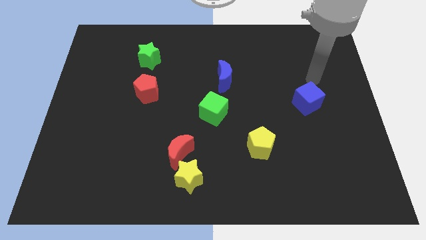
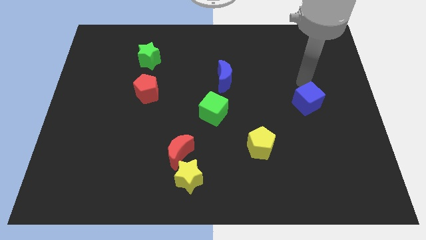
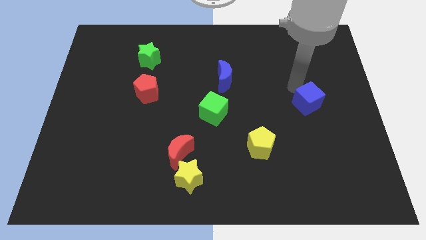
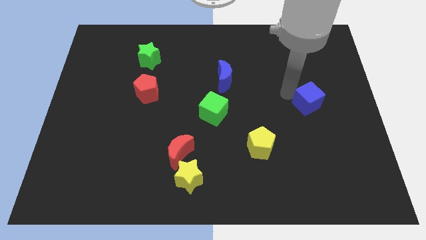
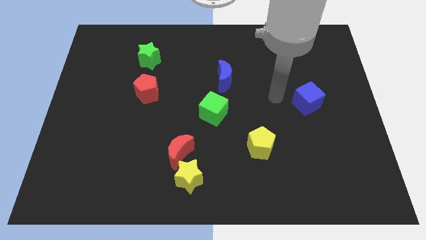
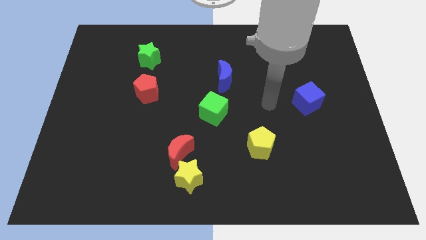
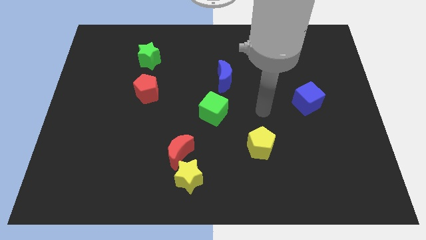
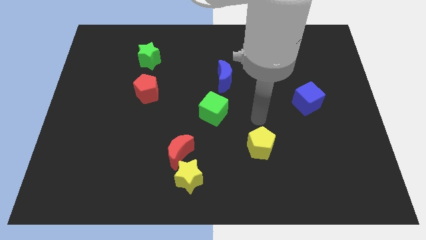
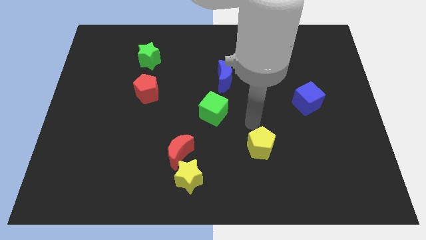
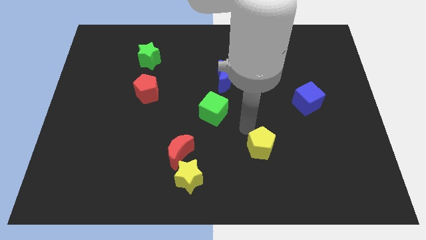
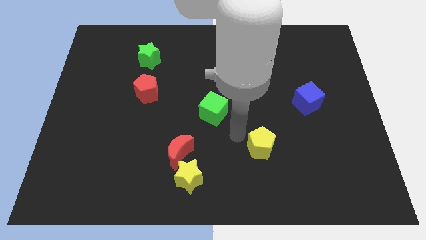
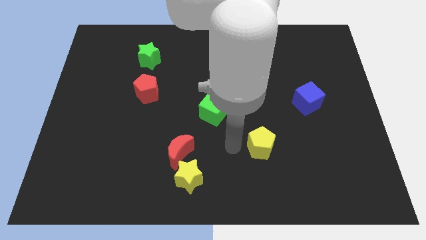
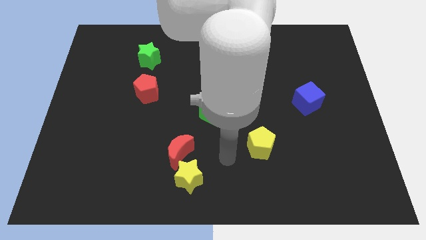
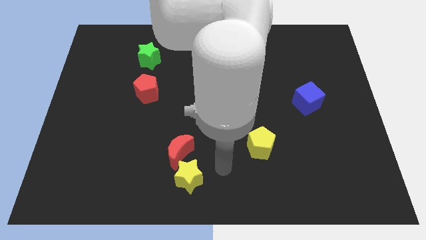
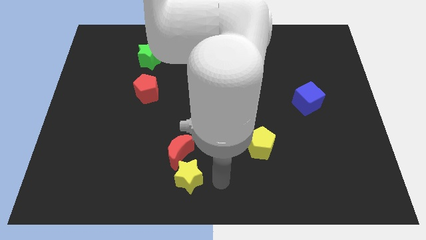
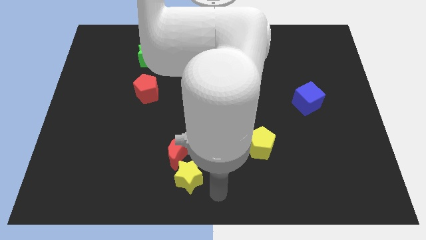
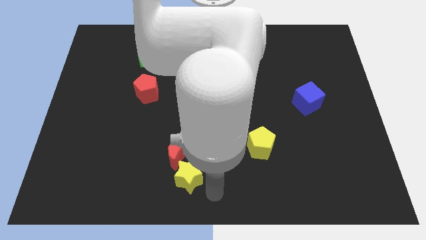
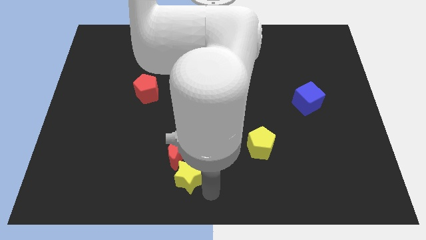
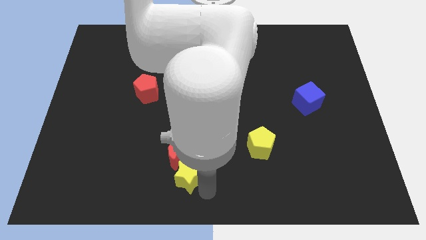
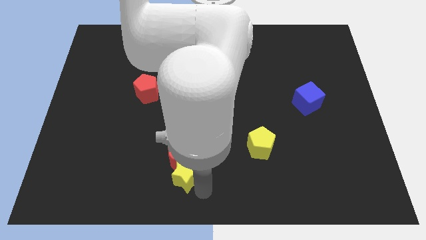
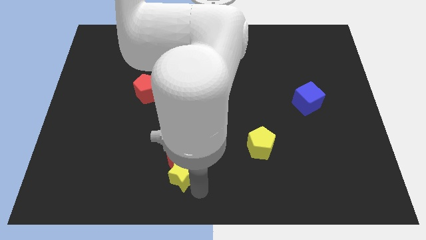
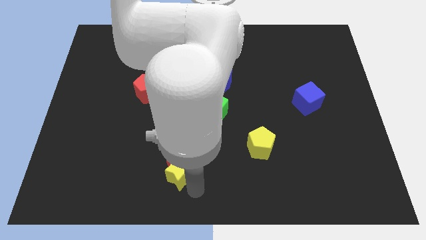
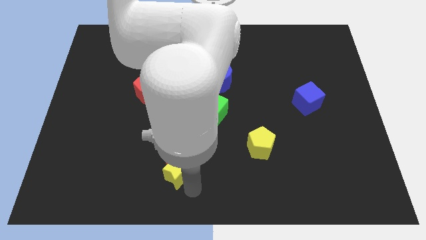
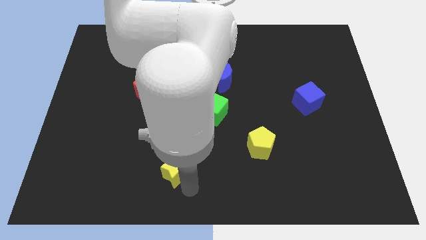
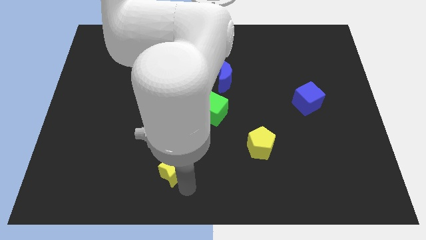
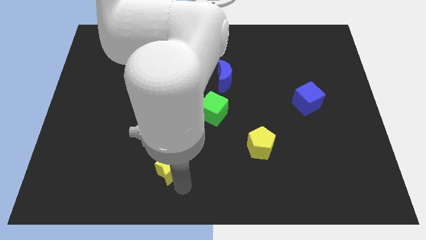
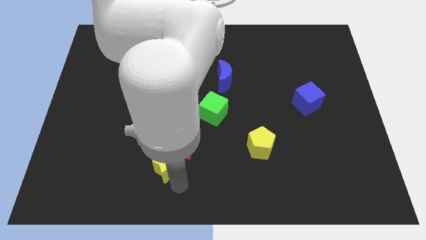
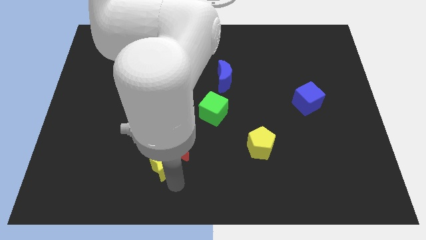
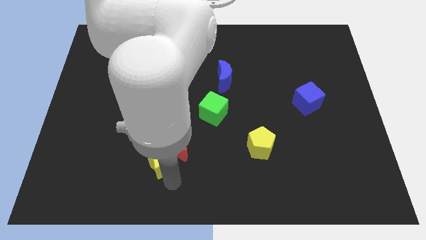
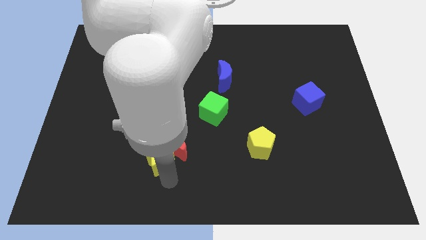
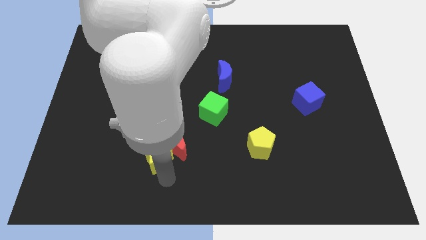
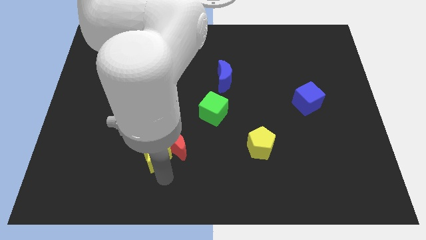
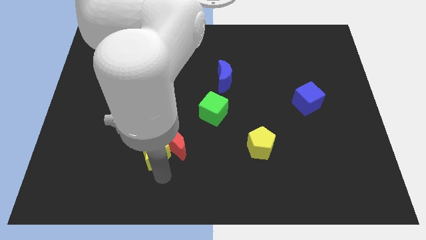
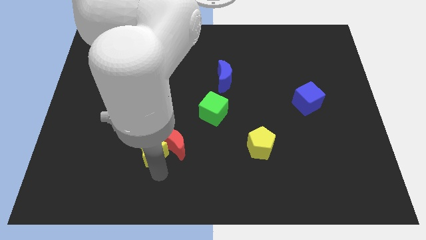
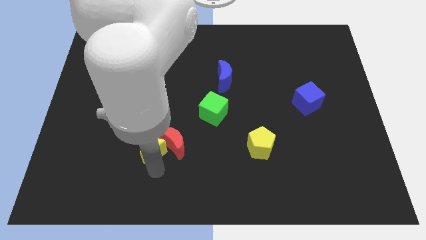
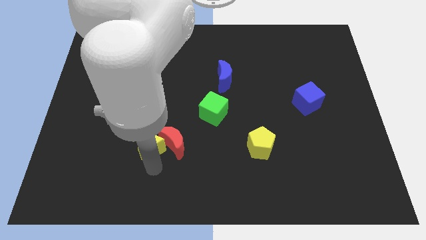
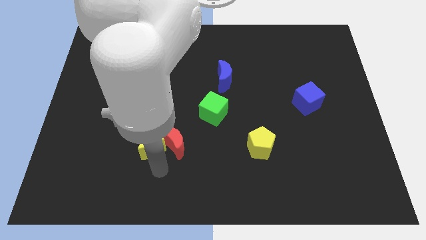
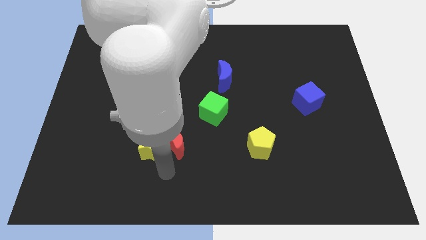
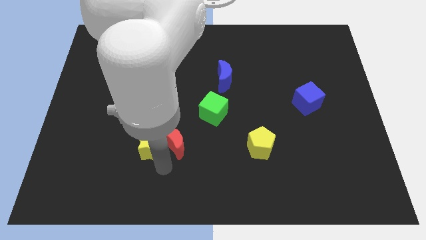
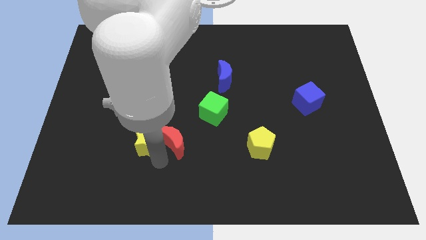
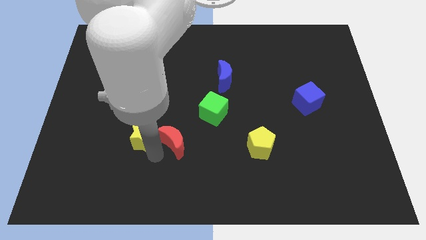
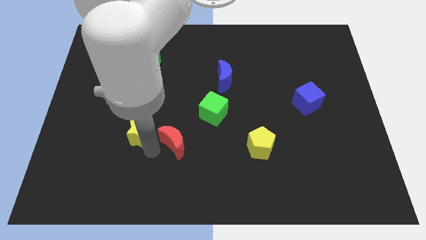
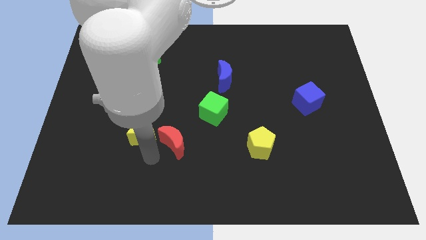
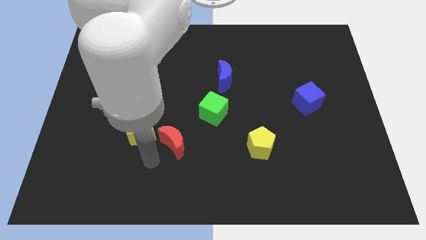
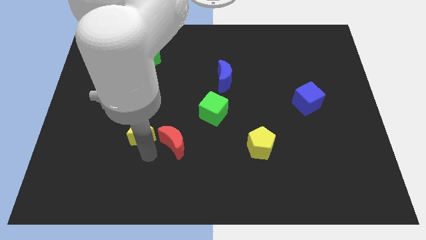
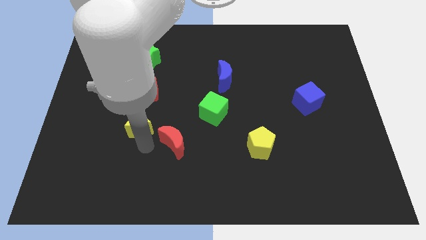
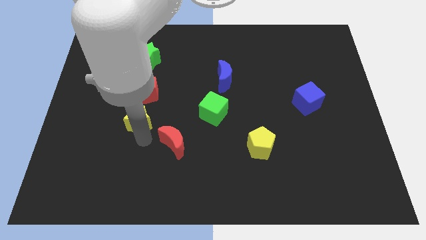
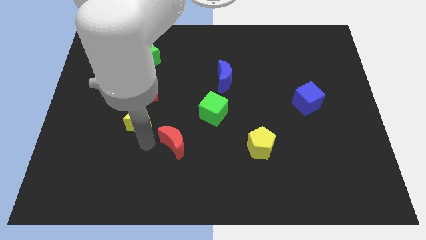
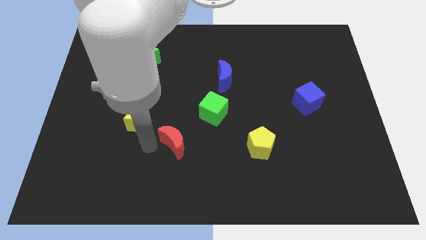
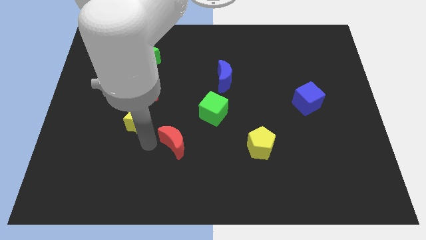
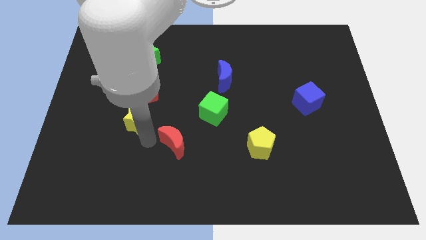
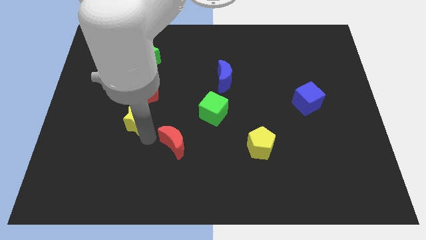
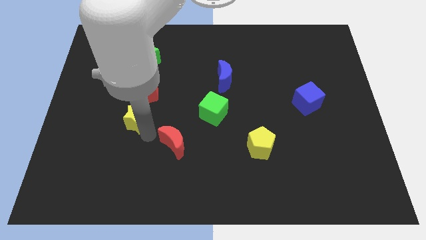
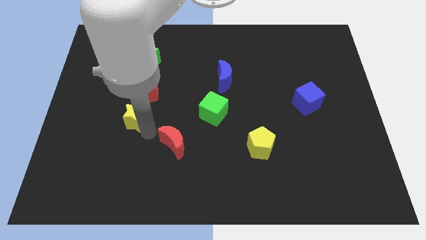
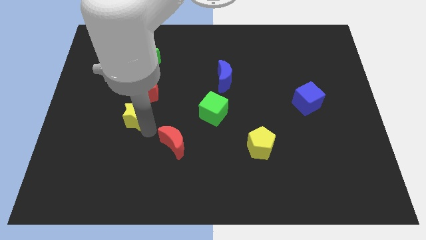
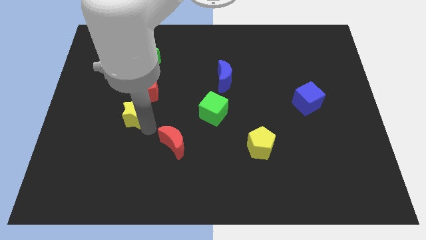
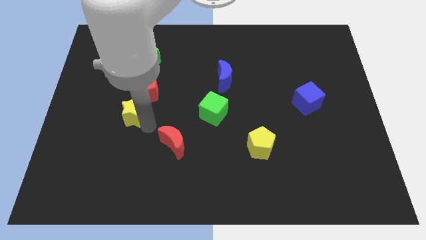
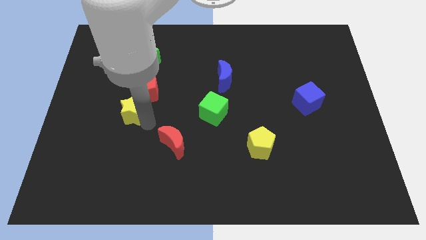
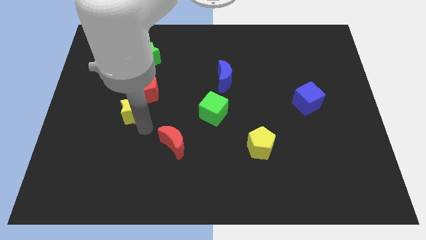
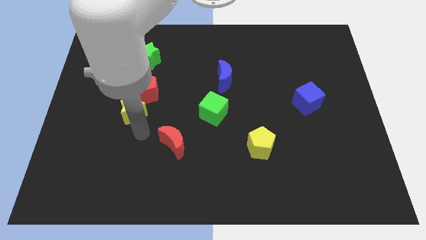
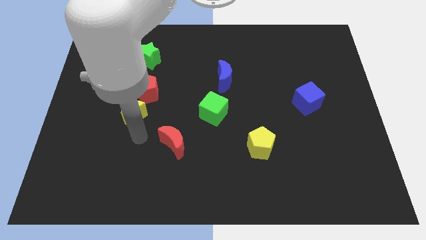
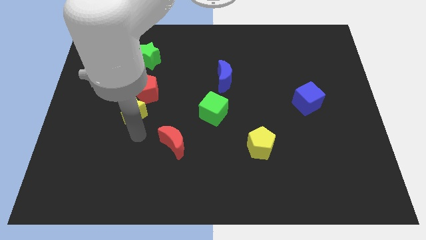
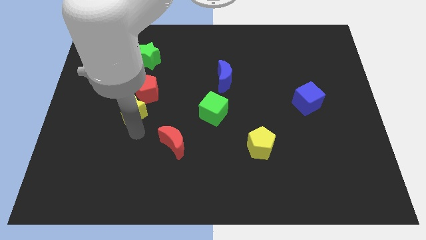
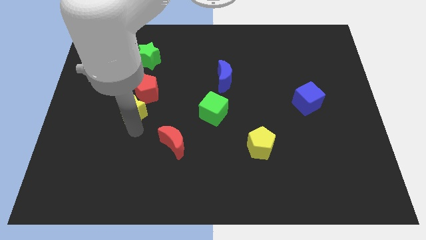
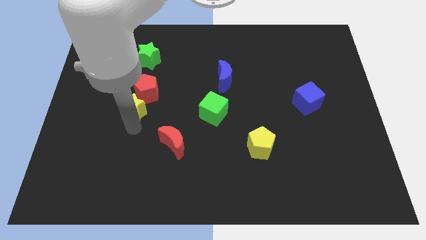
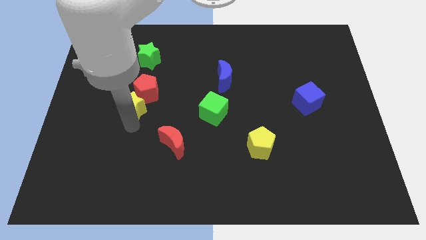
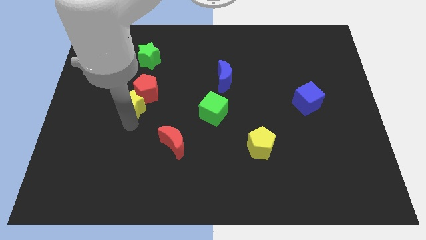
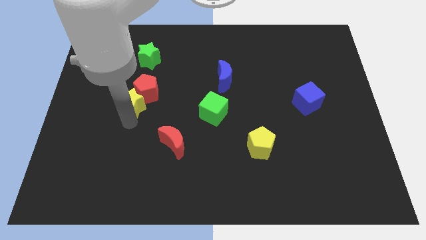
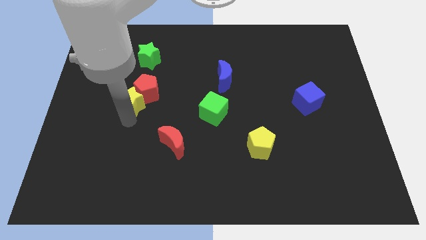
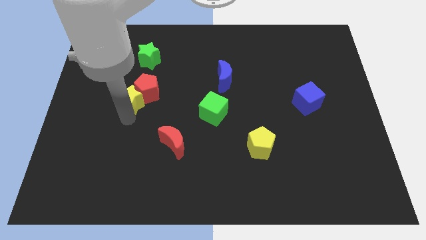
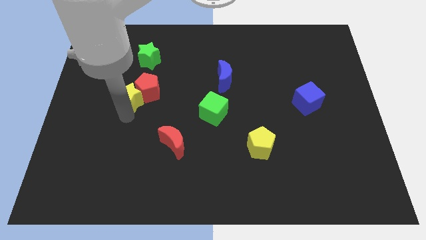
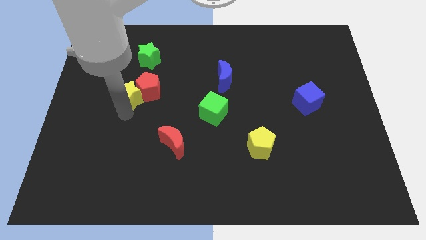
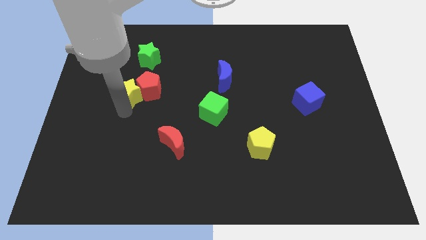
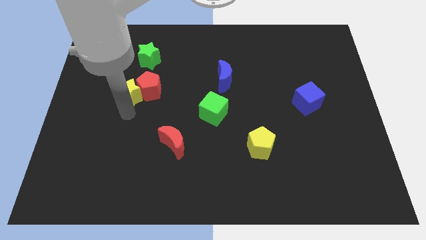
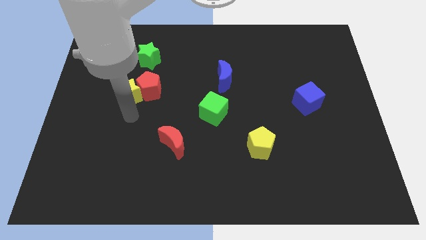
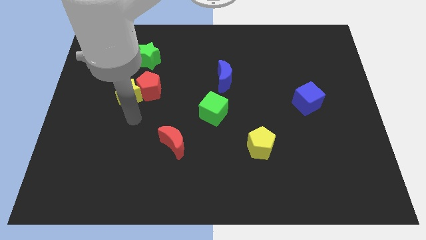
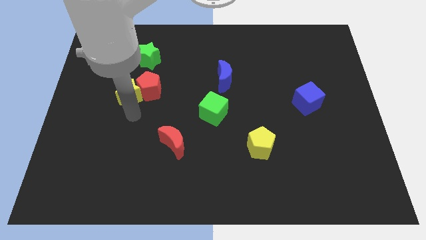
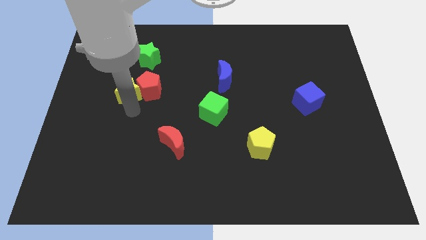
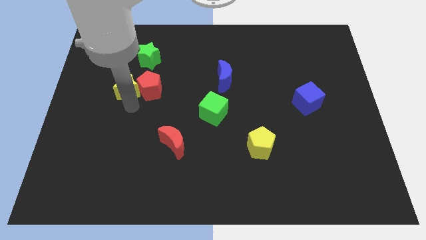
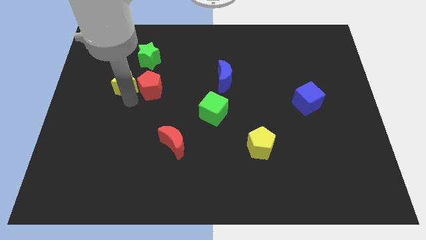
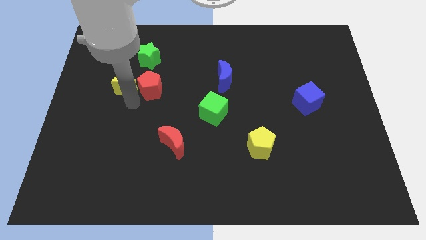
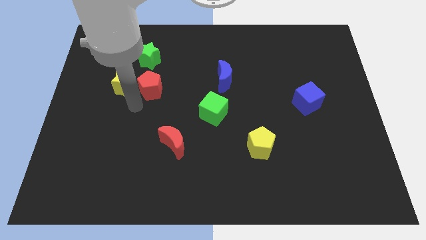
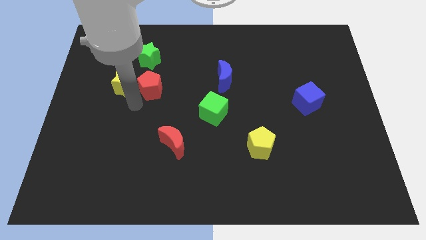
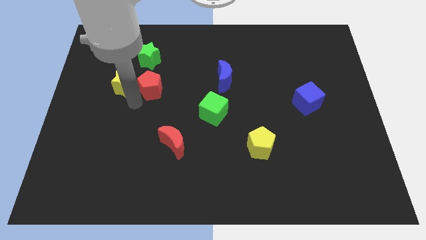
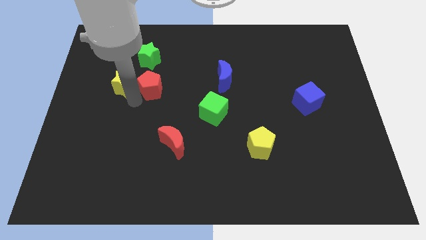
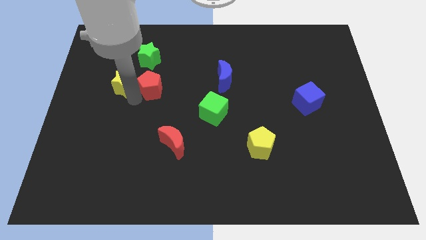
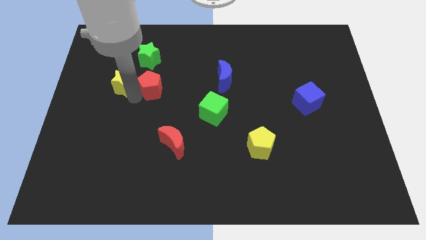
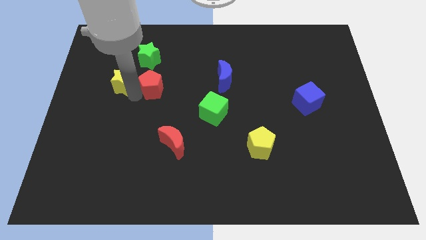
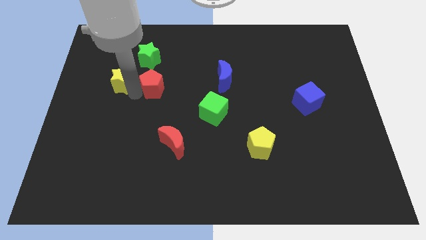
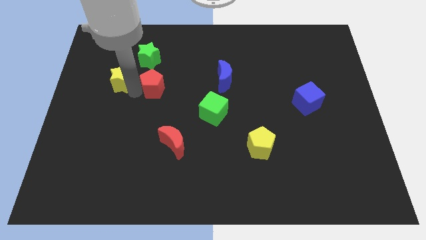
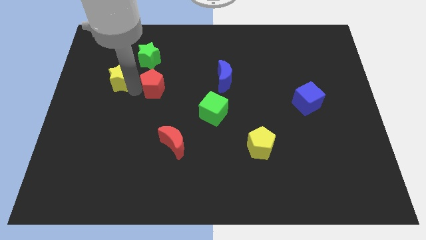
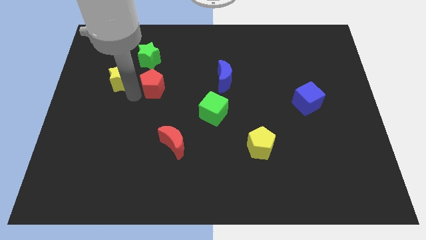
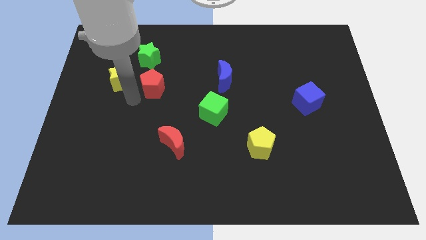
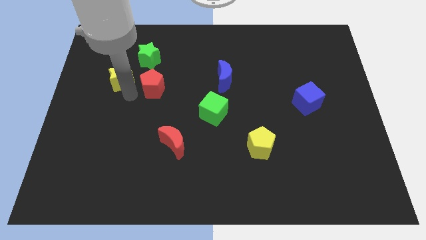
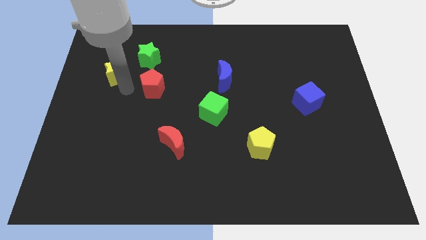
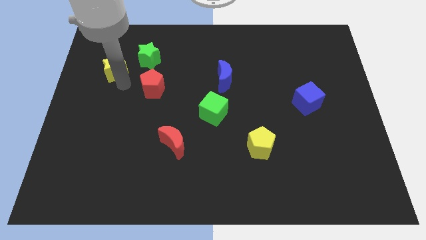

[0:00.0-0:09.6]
slide the yellow star to the left side of the green star
